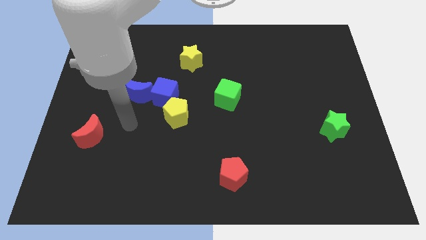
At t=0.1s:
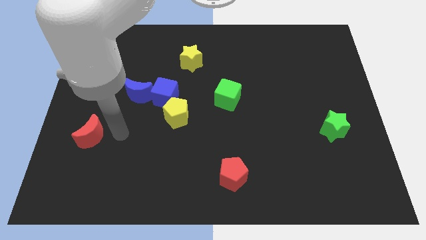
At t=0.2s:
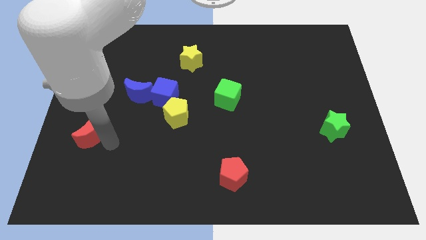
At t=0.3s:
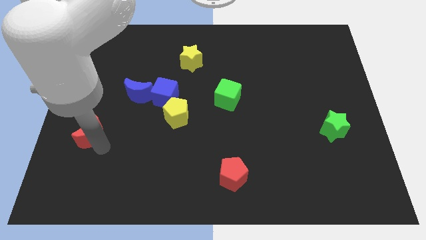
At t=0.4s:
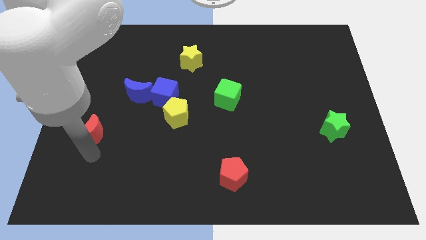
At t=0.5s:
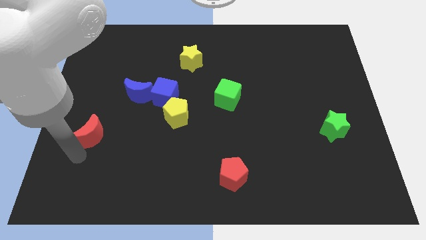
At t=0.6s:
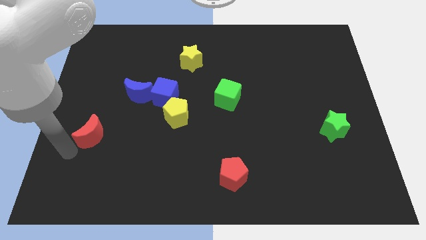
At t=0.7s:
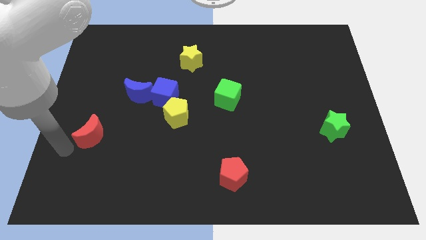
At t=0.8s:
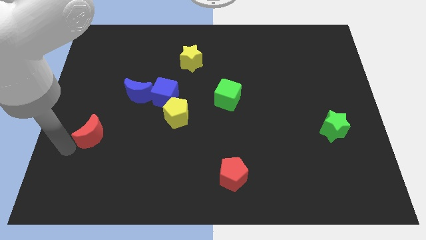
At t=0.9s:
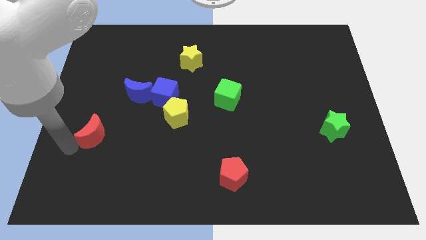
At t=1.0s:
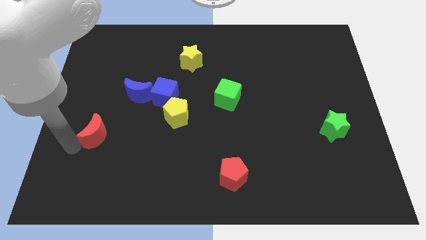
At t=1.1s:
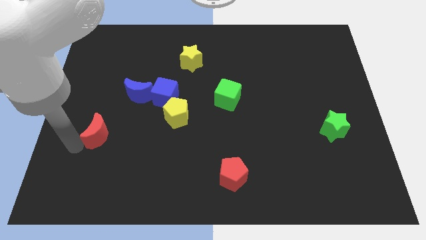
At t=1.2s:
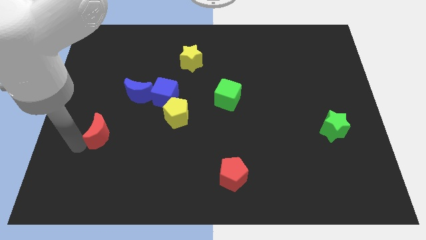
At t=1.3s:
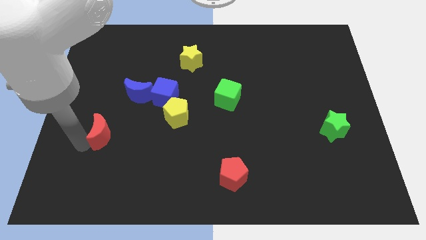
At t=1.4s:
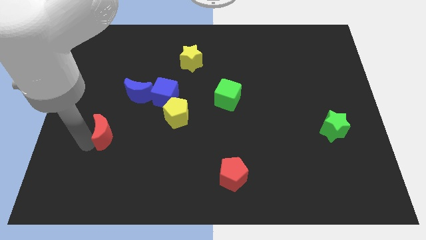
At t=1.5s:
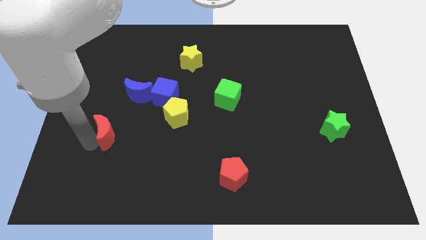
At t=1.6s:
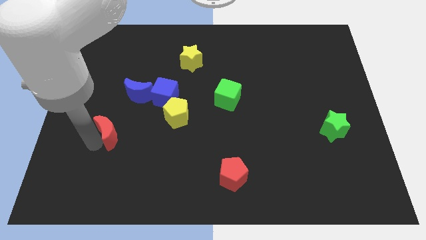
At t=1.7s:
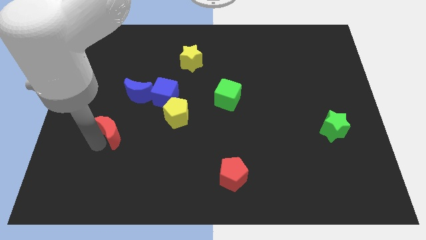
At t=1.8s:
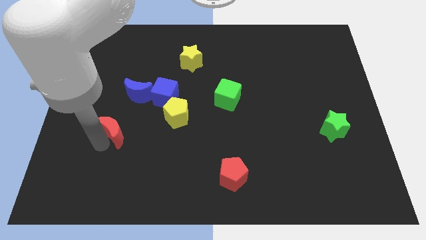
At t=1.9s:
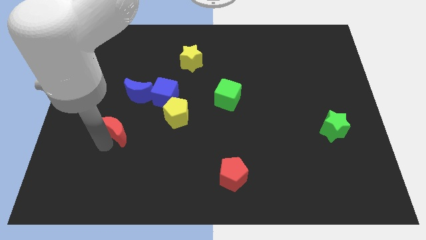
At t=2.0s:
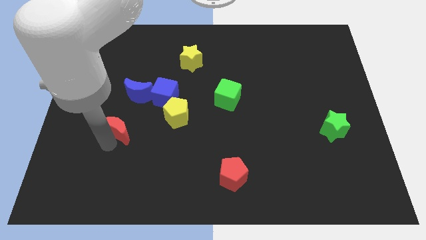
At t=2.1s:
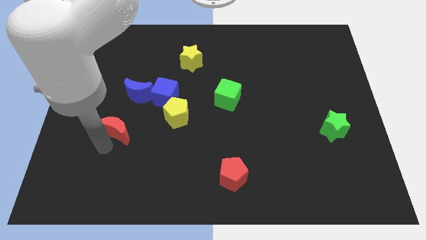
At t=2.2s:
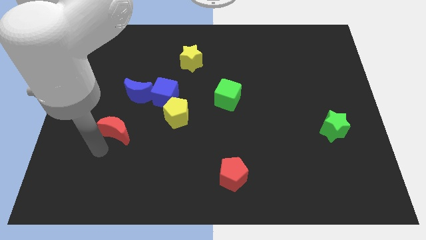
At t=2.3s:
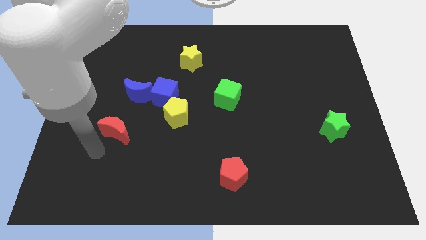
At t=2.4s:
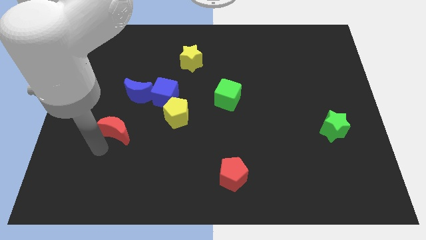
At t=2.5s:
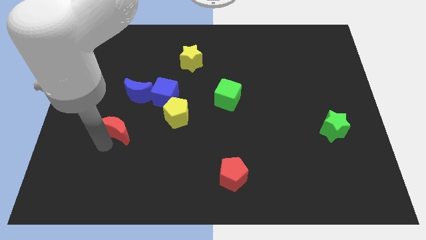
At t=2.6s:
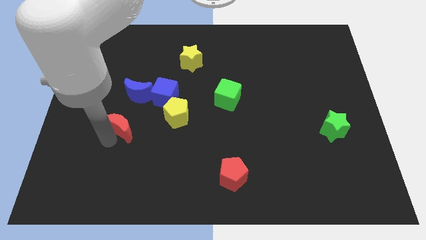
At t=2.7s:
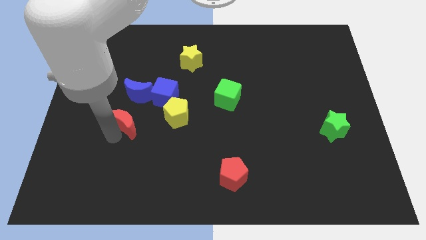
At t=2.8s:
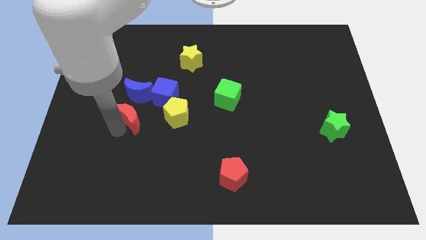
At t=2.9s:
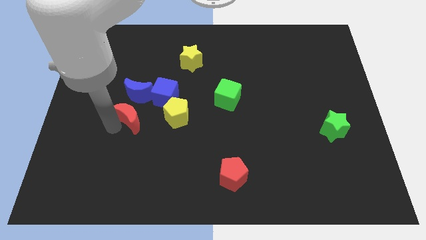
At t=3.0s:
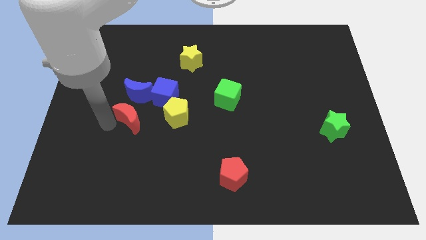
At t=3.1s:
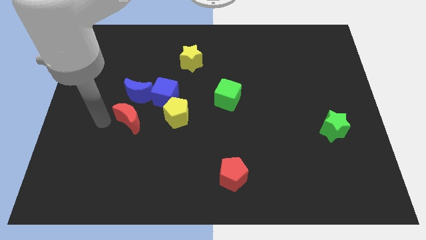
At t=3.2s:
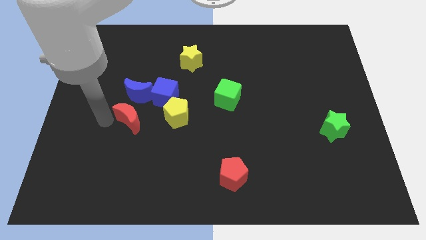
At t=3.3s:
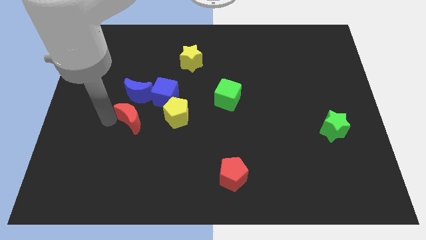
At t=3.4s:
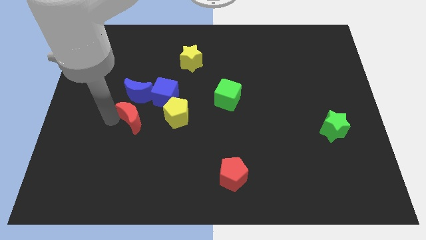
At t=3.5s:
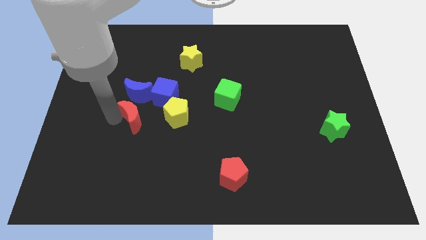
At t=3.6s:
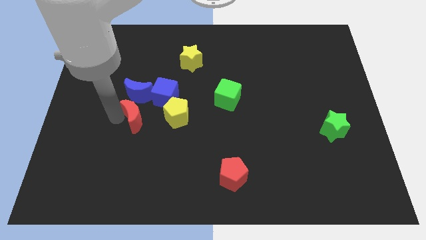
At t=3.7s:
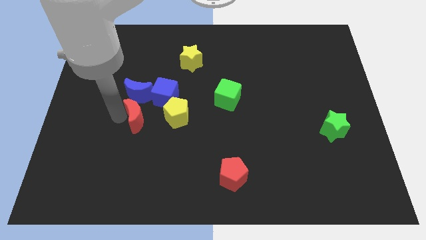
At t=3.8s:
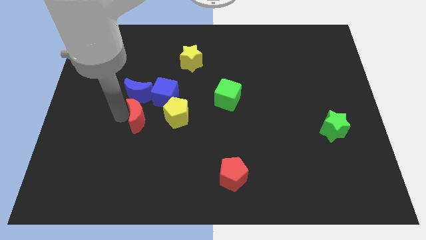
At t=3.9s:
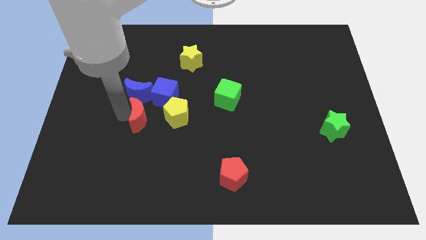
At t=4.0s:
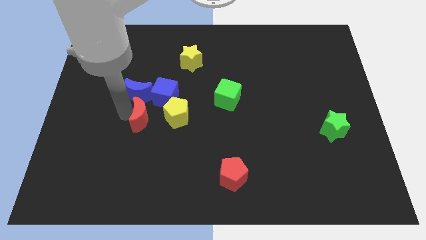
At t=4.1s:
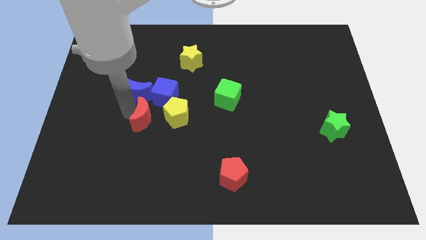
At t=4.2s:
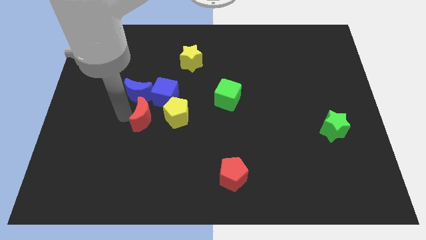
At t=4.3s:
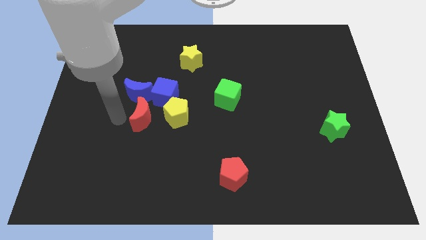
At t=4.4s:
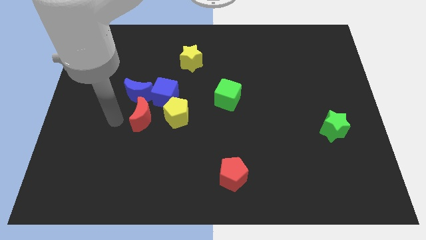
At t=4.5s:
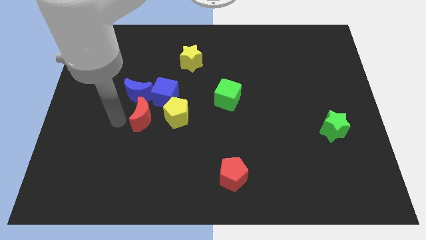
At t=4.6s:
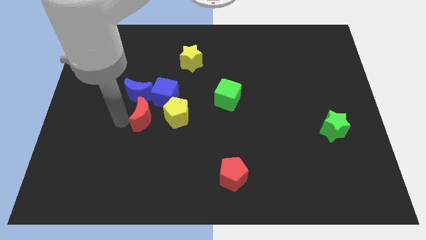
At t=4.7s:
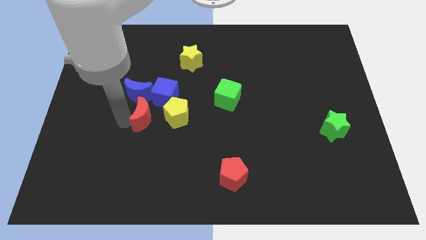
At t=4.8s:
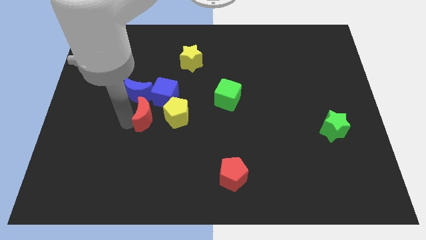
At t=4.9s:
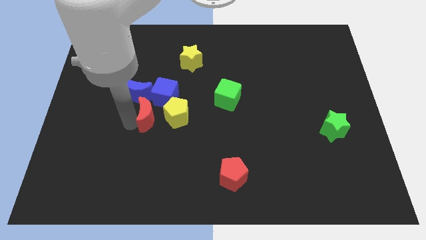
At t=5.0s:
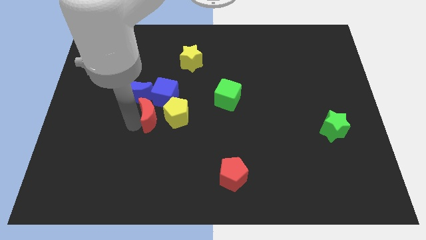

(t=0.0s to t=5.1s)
push the red moon close to the yellow pentagon

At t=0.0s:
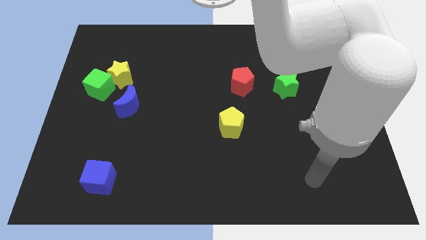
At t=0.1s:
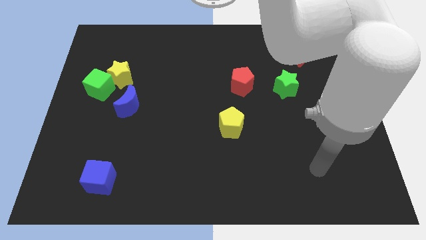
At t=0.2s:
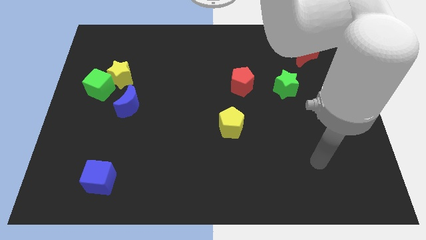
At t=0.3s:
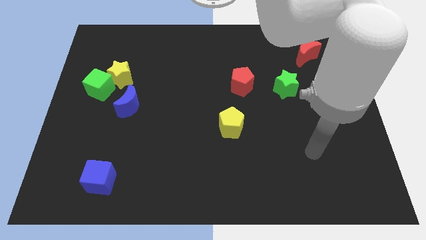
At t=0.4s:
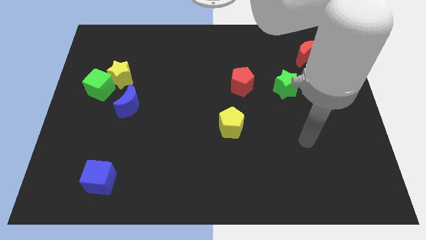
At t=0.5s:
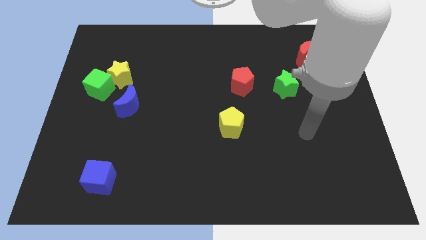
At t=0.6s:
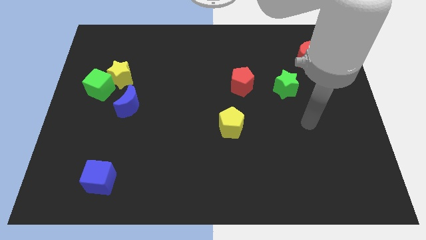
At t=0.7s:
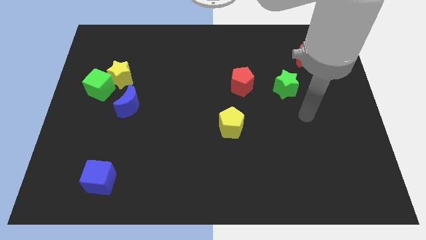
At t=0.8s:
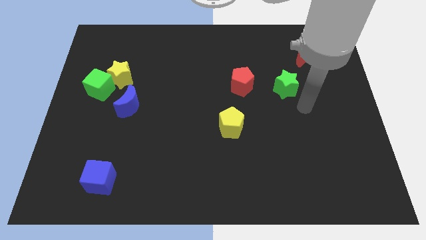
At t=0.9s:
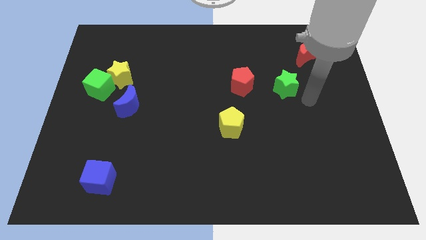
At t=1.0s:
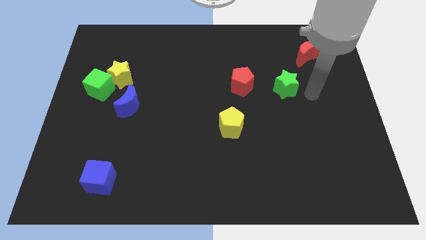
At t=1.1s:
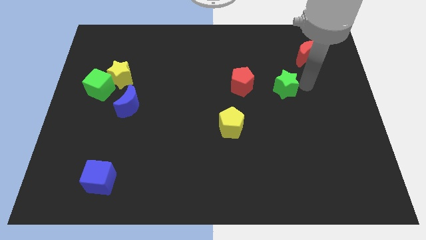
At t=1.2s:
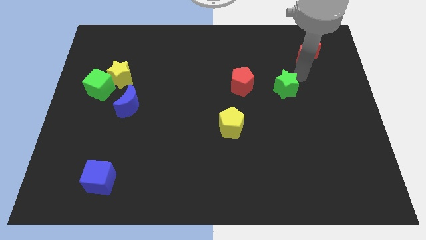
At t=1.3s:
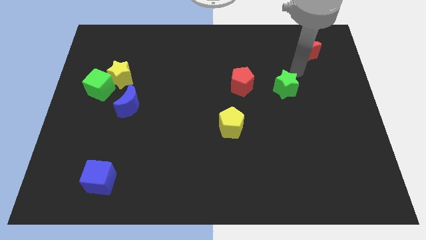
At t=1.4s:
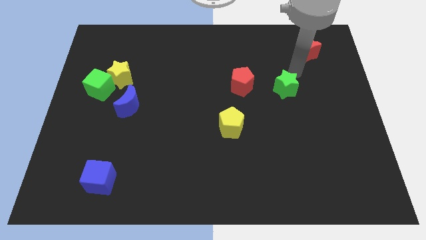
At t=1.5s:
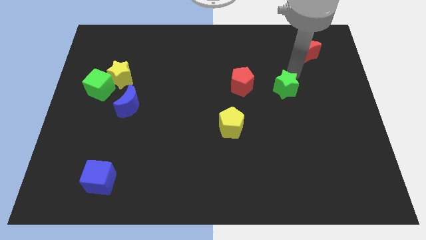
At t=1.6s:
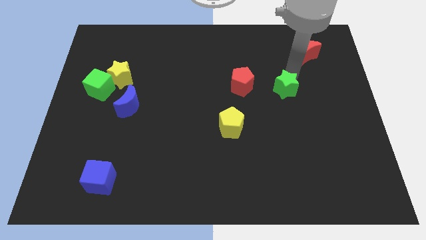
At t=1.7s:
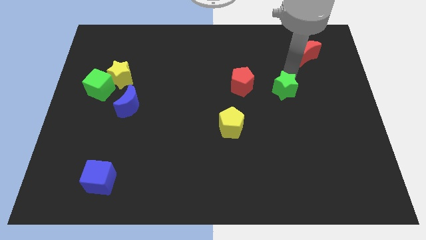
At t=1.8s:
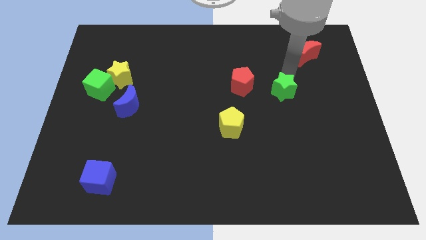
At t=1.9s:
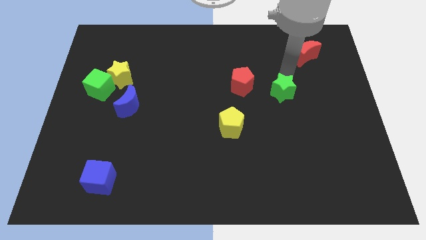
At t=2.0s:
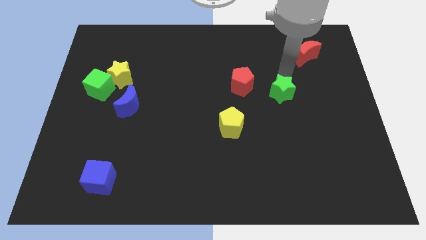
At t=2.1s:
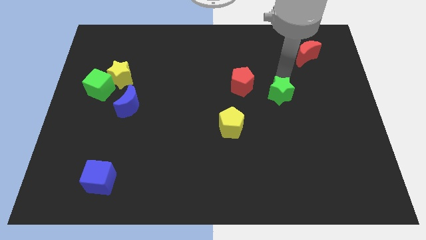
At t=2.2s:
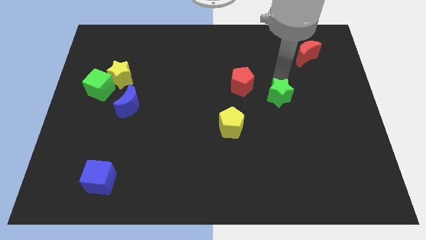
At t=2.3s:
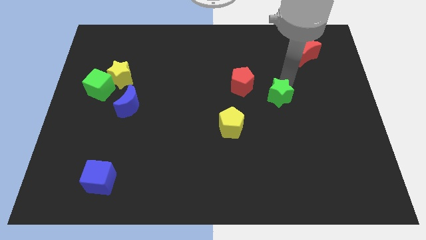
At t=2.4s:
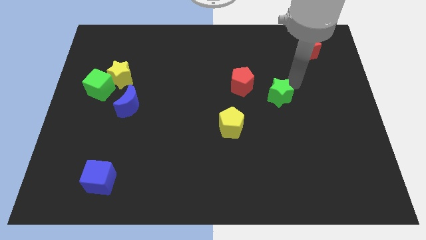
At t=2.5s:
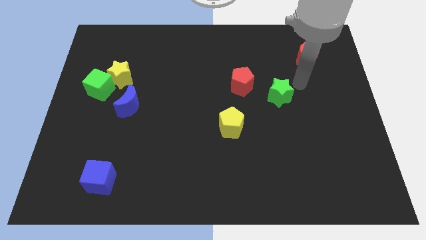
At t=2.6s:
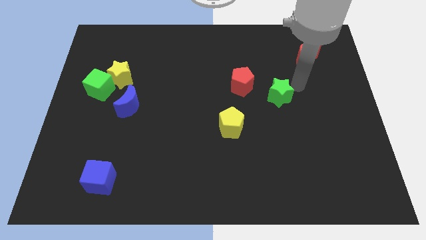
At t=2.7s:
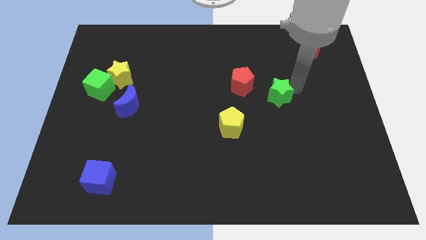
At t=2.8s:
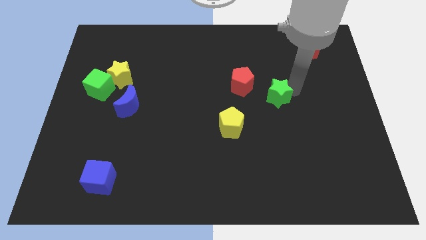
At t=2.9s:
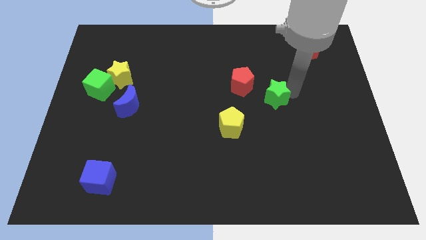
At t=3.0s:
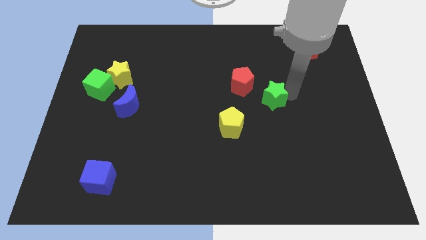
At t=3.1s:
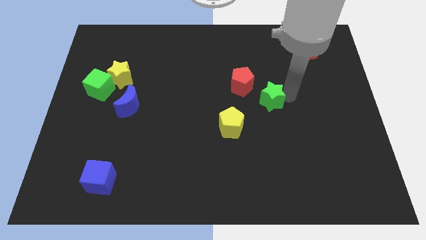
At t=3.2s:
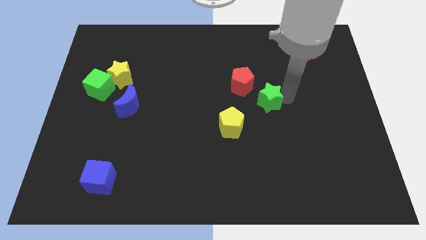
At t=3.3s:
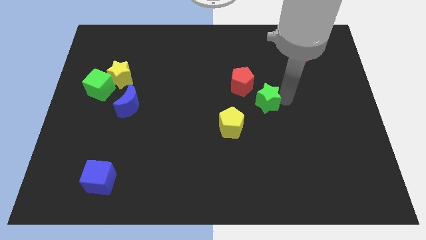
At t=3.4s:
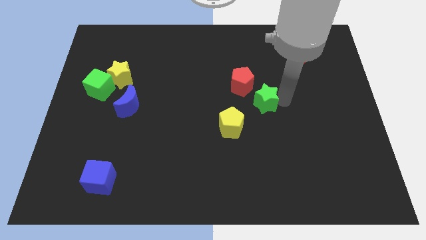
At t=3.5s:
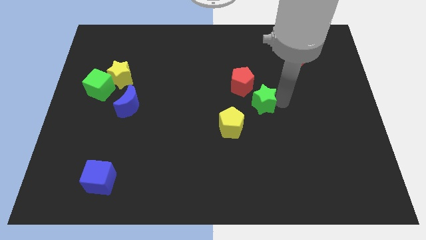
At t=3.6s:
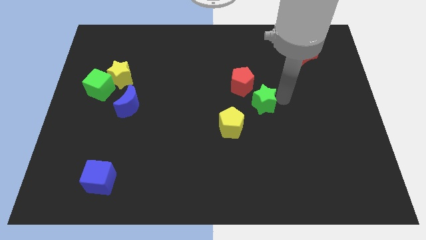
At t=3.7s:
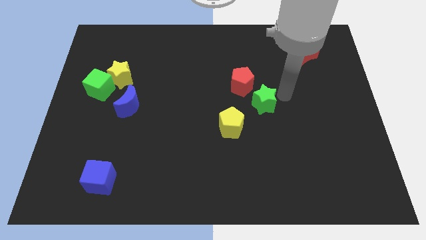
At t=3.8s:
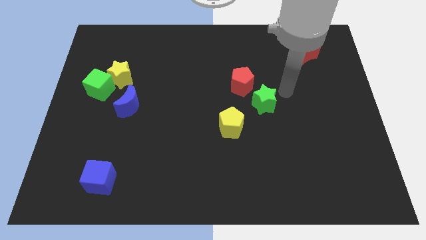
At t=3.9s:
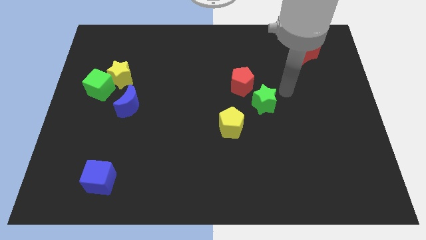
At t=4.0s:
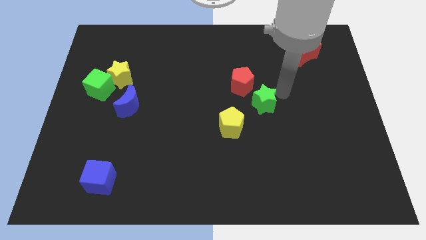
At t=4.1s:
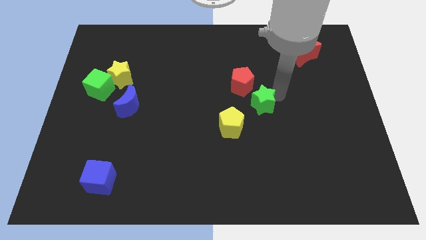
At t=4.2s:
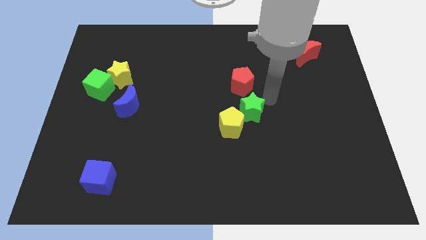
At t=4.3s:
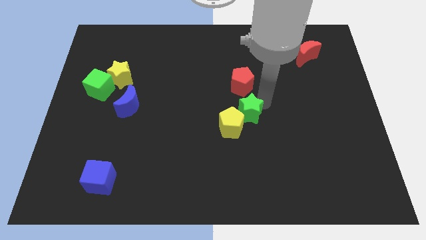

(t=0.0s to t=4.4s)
move the green star close to the yellow pentagon
